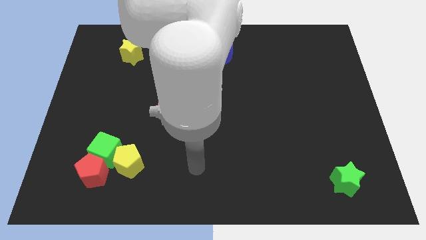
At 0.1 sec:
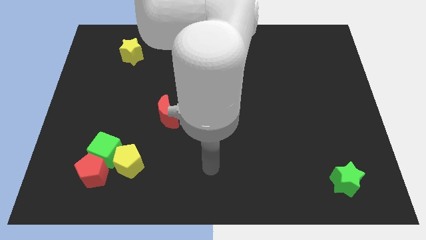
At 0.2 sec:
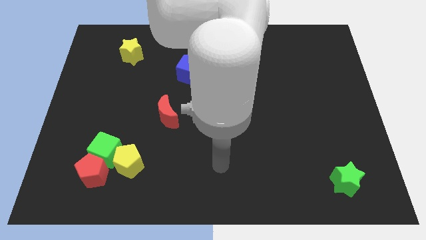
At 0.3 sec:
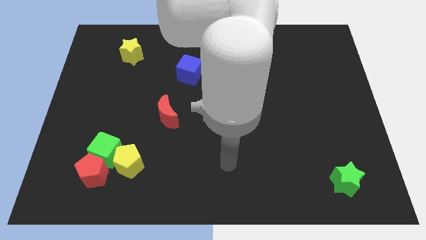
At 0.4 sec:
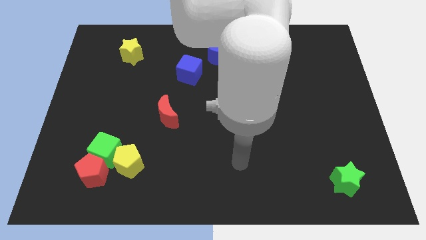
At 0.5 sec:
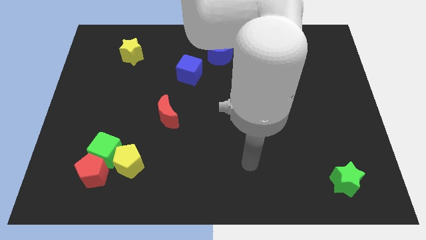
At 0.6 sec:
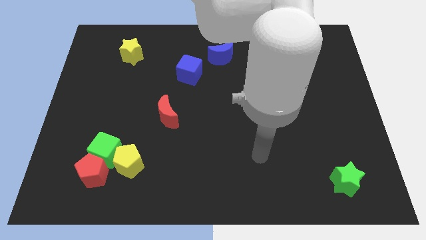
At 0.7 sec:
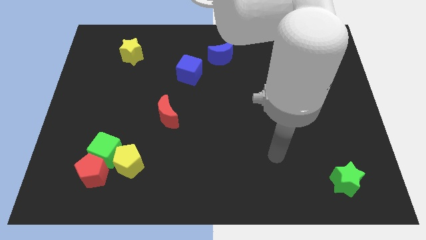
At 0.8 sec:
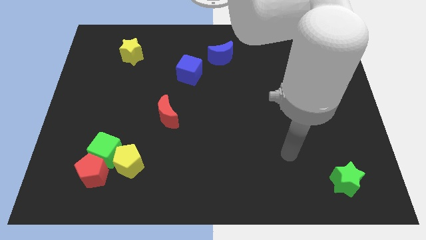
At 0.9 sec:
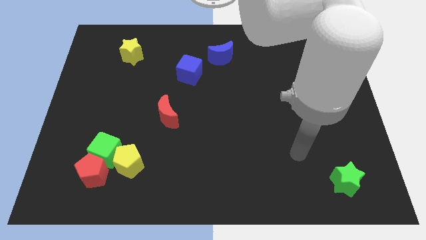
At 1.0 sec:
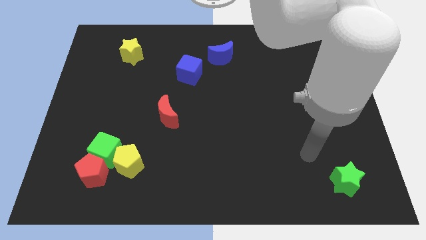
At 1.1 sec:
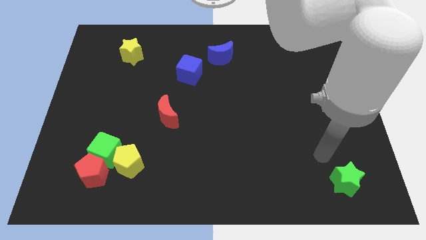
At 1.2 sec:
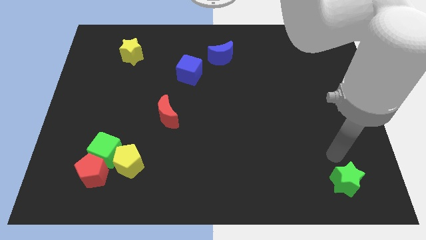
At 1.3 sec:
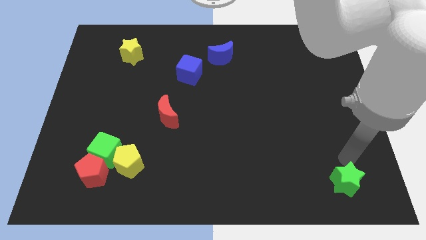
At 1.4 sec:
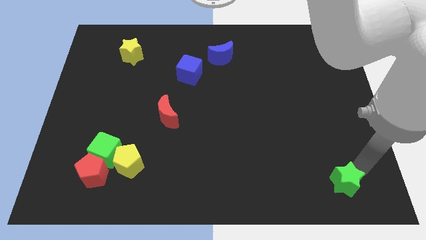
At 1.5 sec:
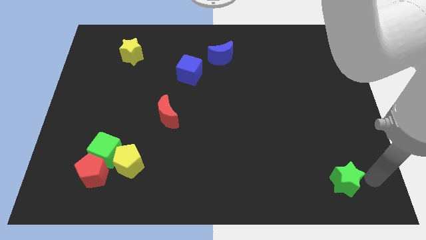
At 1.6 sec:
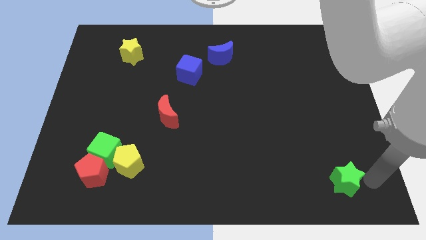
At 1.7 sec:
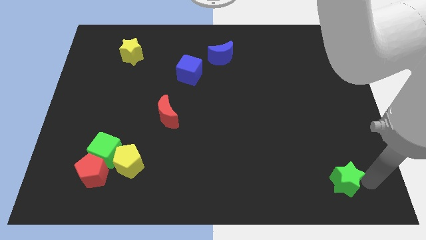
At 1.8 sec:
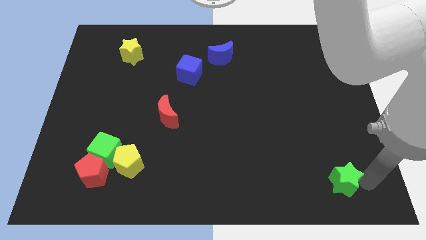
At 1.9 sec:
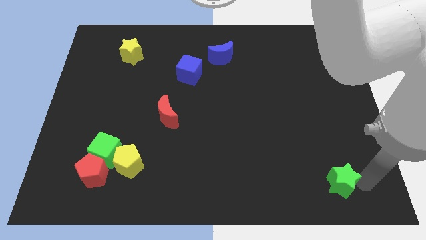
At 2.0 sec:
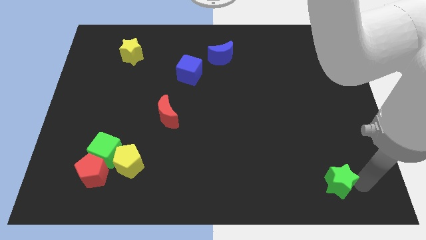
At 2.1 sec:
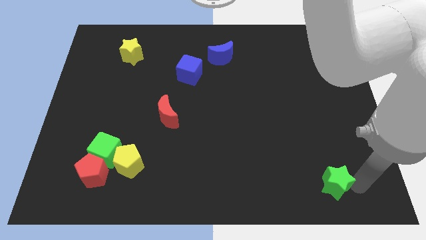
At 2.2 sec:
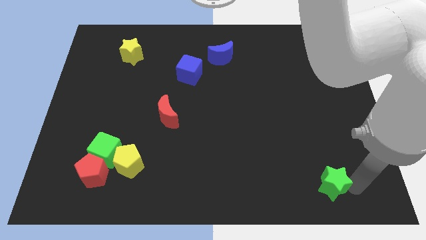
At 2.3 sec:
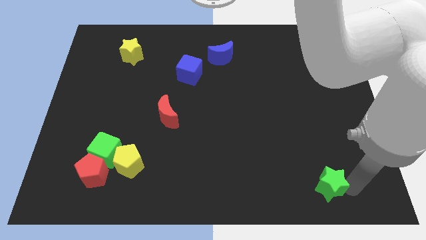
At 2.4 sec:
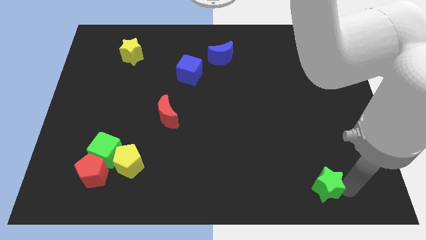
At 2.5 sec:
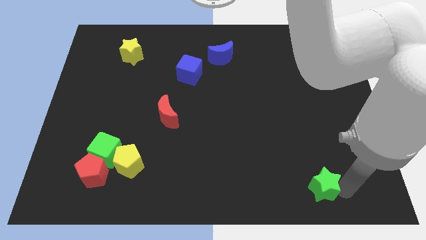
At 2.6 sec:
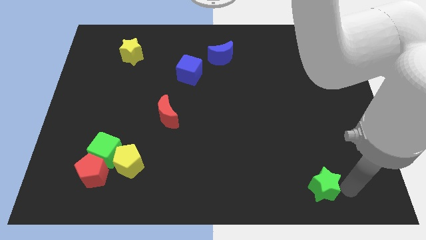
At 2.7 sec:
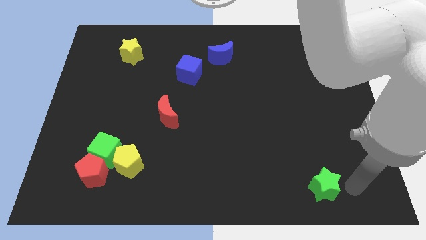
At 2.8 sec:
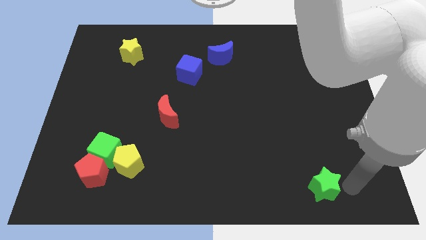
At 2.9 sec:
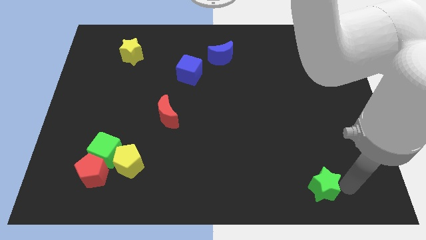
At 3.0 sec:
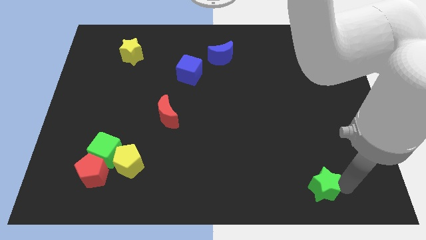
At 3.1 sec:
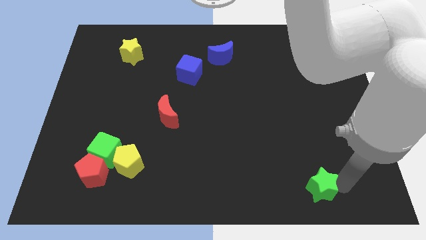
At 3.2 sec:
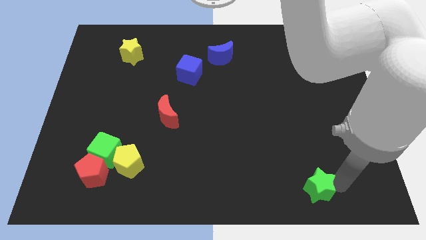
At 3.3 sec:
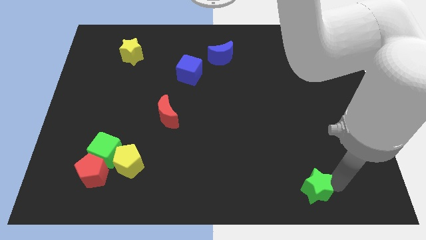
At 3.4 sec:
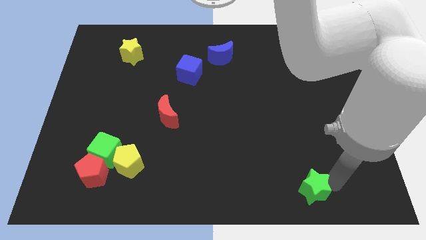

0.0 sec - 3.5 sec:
slide the green star somewhat left

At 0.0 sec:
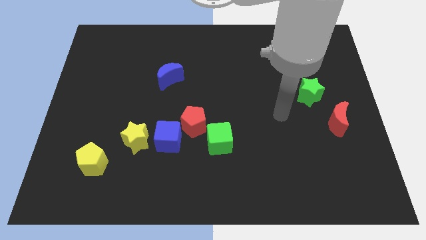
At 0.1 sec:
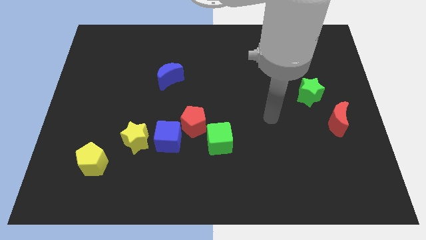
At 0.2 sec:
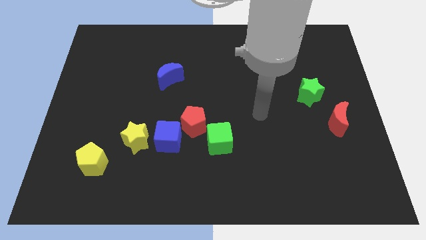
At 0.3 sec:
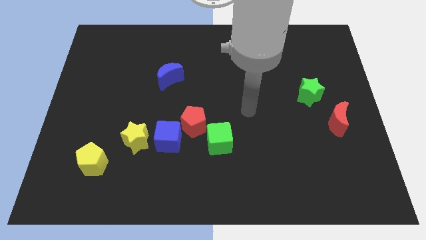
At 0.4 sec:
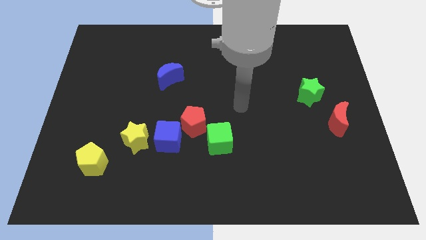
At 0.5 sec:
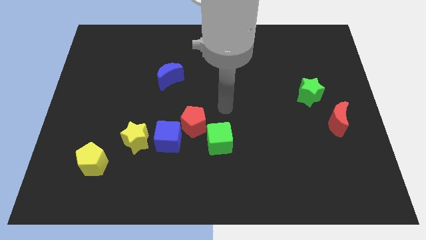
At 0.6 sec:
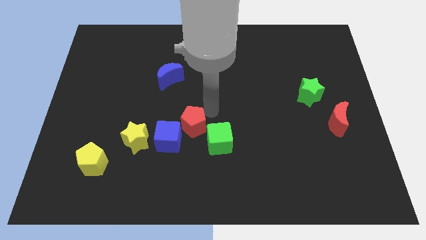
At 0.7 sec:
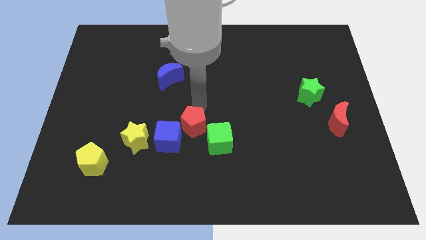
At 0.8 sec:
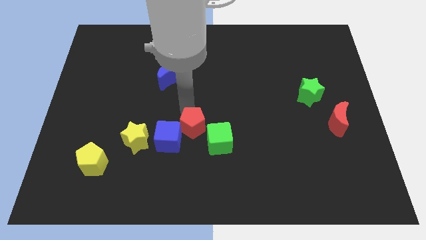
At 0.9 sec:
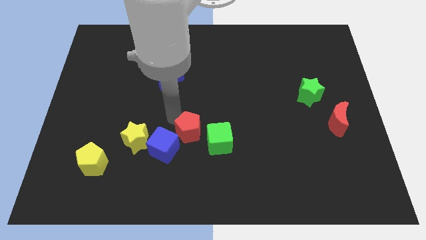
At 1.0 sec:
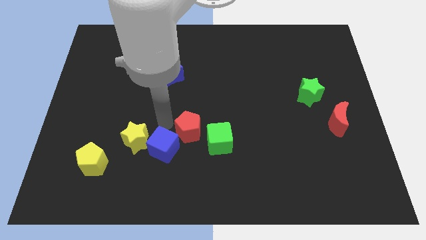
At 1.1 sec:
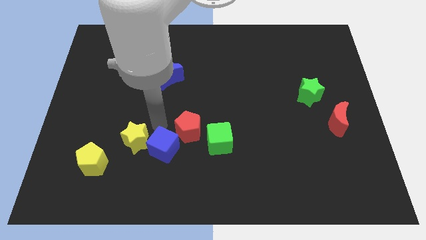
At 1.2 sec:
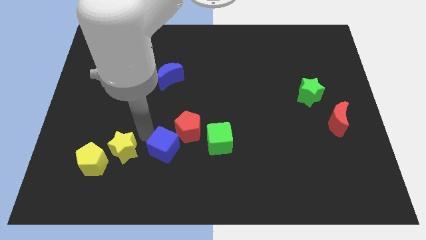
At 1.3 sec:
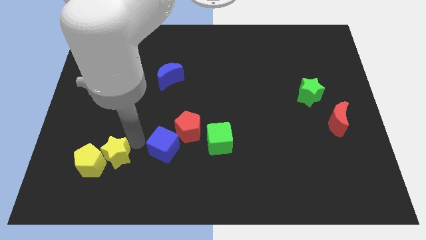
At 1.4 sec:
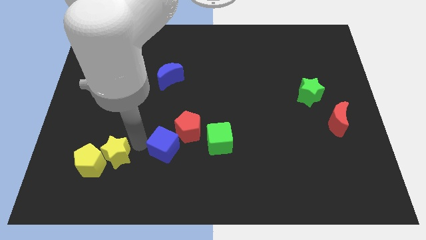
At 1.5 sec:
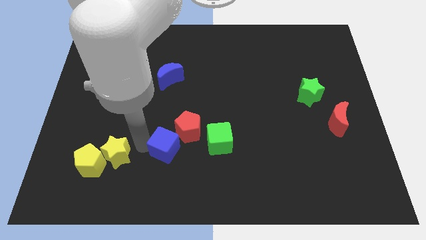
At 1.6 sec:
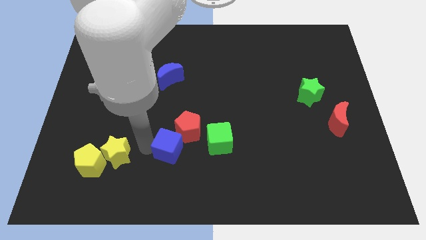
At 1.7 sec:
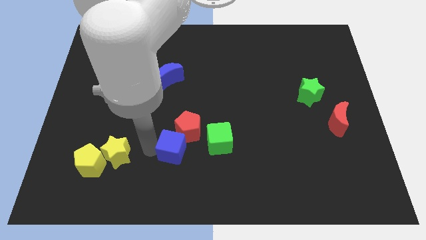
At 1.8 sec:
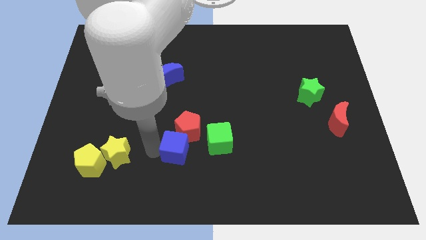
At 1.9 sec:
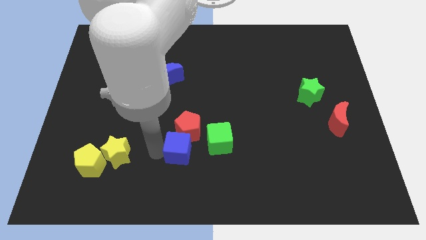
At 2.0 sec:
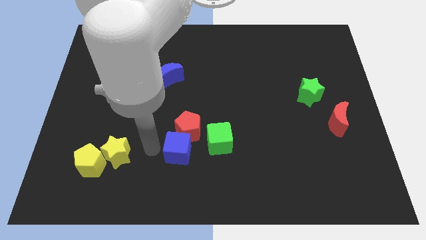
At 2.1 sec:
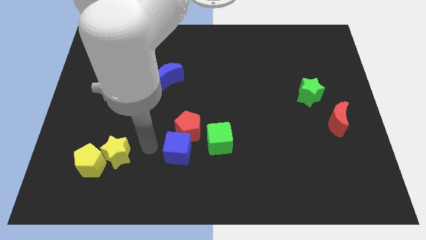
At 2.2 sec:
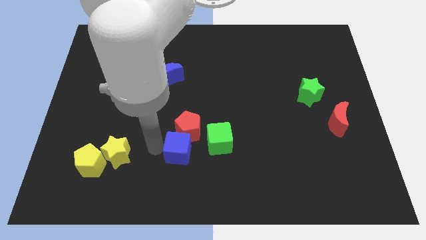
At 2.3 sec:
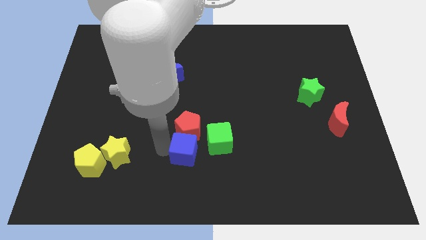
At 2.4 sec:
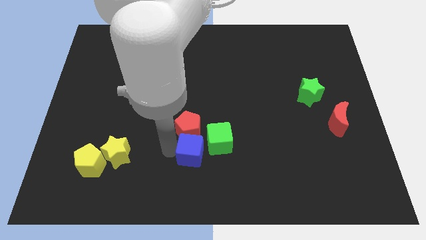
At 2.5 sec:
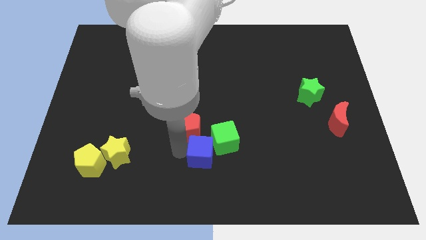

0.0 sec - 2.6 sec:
slightly slide the blue cube to the right

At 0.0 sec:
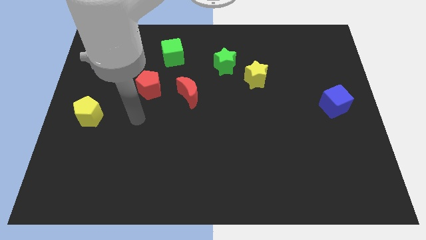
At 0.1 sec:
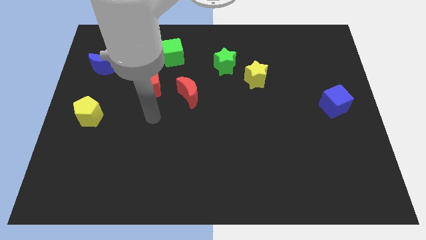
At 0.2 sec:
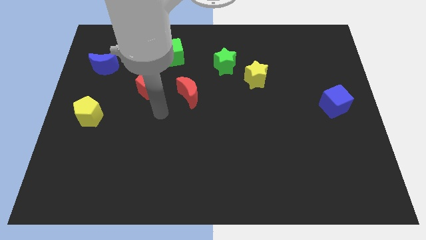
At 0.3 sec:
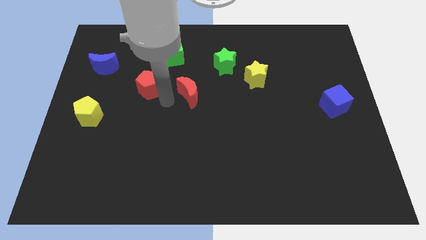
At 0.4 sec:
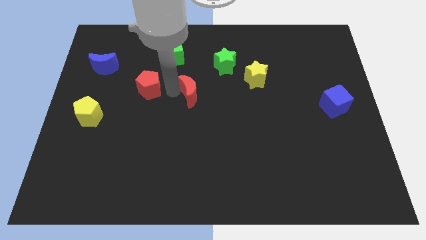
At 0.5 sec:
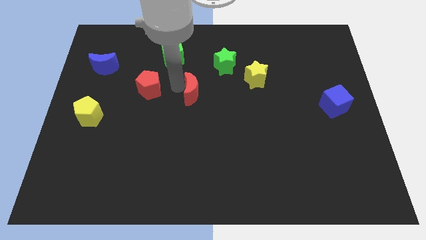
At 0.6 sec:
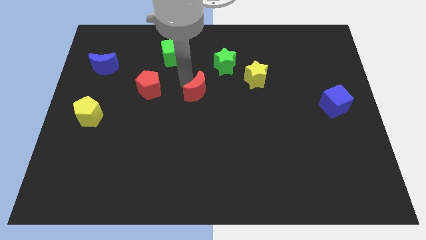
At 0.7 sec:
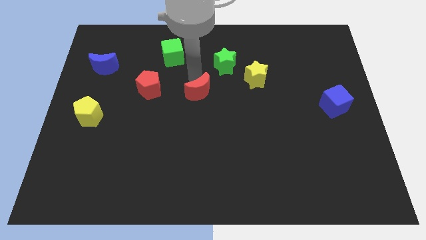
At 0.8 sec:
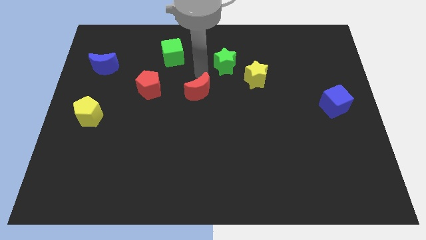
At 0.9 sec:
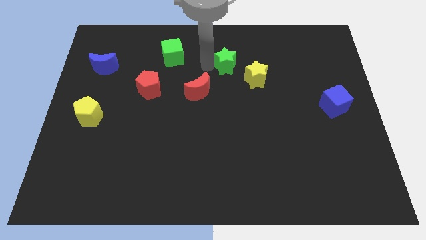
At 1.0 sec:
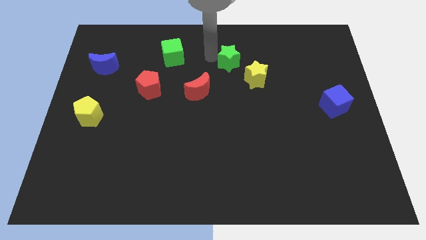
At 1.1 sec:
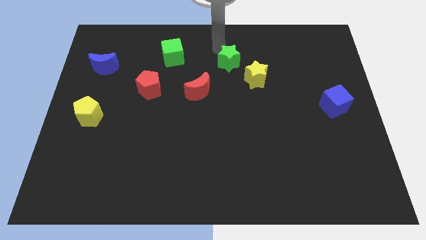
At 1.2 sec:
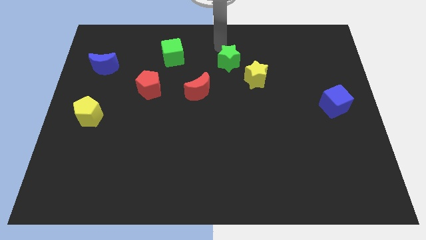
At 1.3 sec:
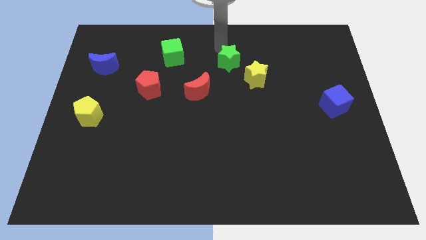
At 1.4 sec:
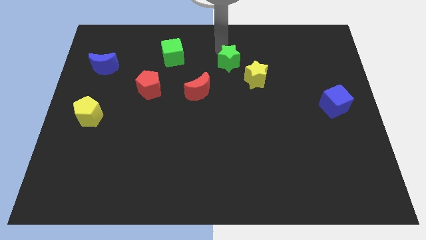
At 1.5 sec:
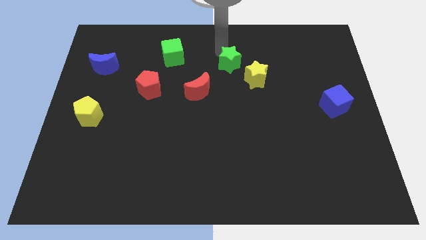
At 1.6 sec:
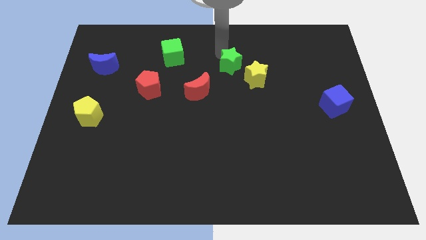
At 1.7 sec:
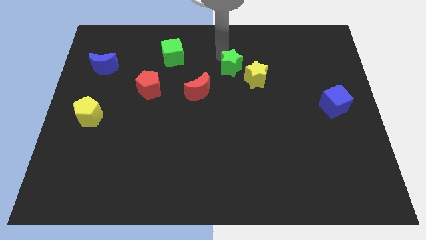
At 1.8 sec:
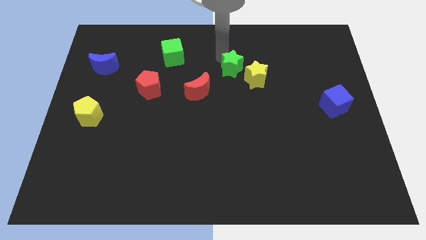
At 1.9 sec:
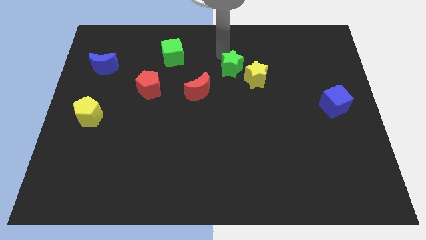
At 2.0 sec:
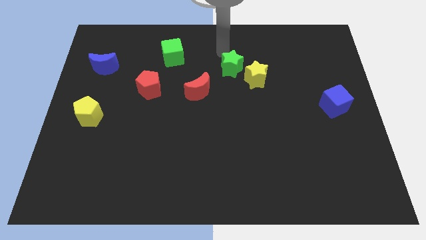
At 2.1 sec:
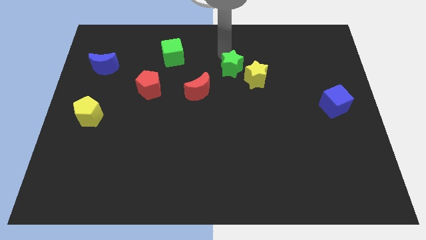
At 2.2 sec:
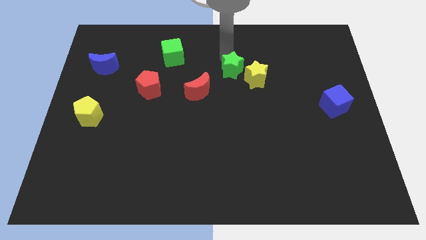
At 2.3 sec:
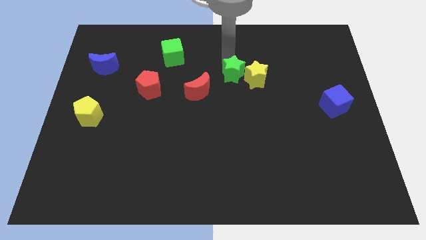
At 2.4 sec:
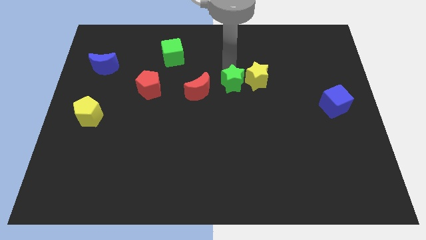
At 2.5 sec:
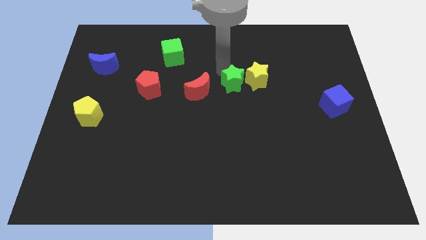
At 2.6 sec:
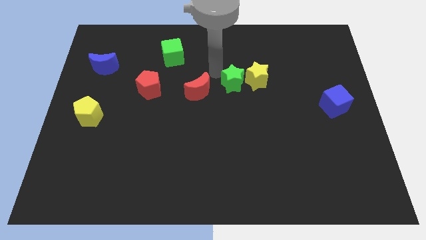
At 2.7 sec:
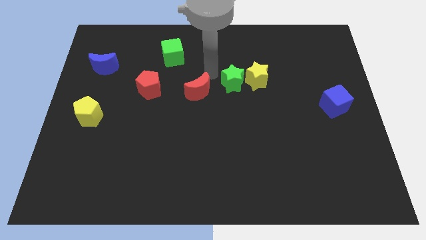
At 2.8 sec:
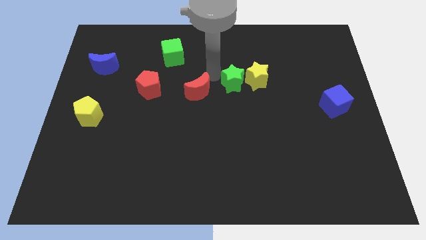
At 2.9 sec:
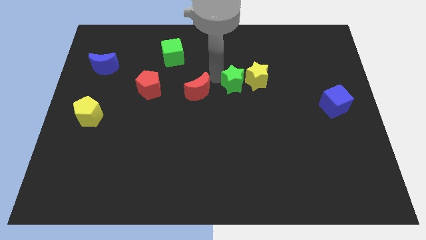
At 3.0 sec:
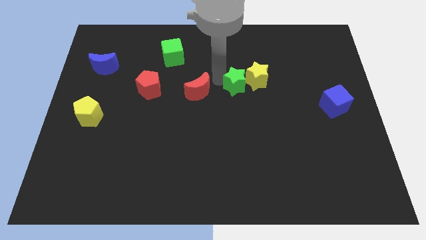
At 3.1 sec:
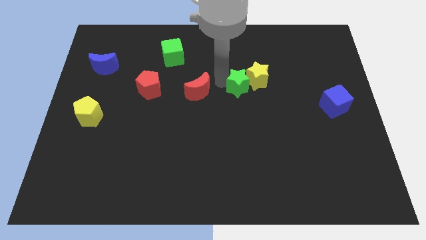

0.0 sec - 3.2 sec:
move the green star downwards and right a little bit
